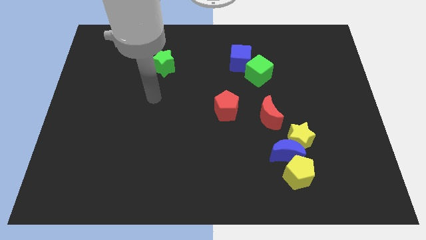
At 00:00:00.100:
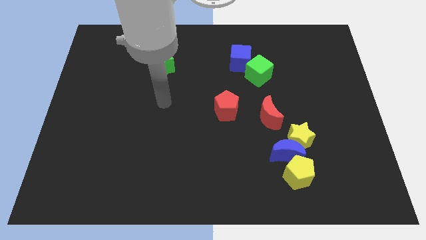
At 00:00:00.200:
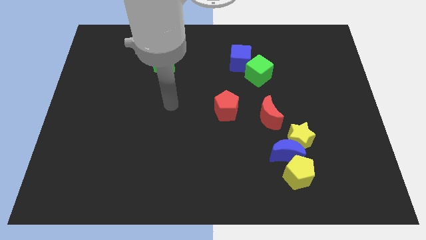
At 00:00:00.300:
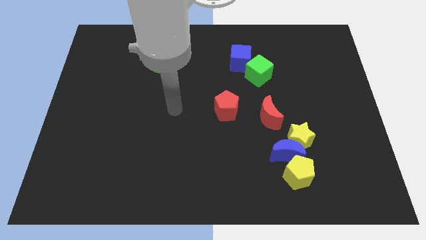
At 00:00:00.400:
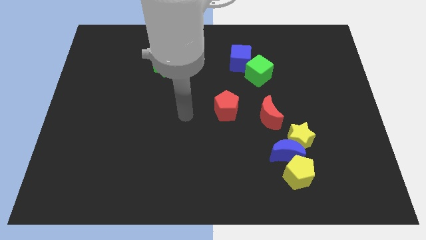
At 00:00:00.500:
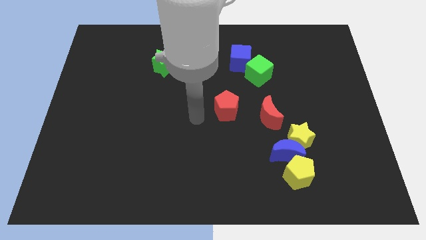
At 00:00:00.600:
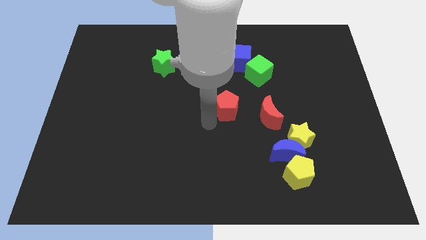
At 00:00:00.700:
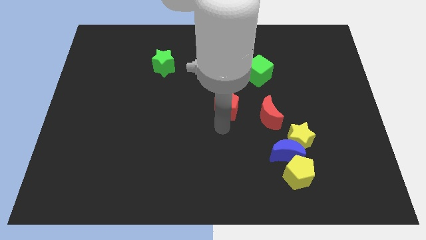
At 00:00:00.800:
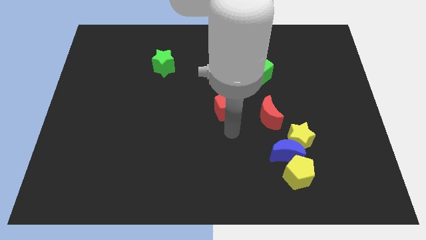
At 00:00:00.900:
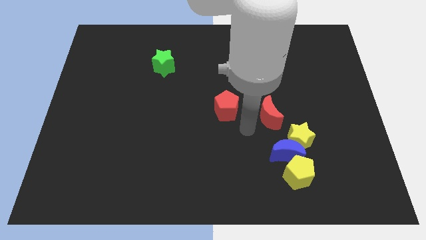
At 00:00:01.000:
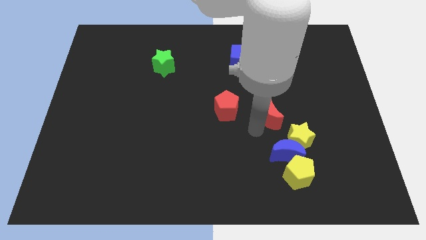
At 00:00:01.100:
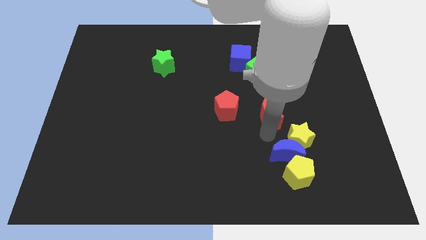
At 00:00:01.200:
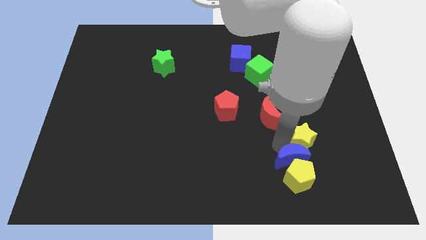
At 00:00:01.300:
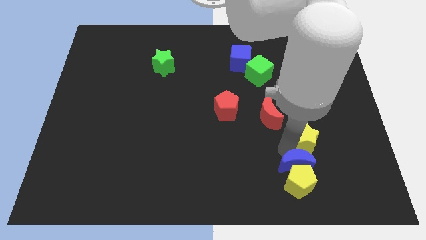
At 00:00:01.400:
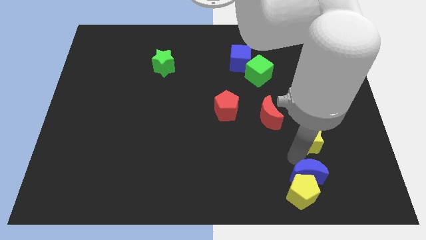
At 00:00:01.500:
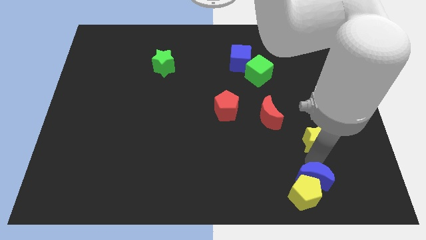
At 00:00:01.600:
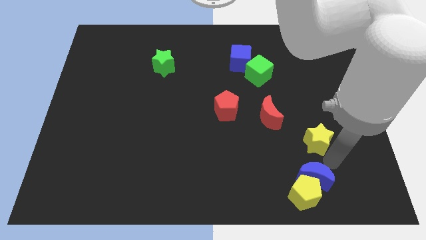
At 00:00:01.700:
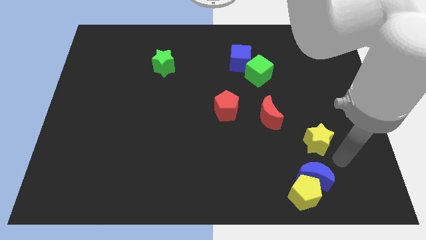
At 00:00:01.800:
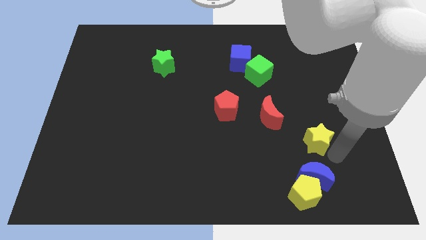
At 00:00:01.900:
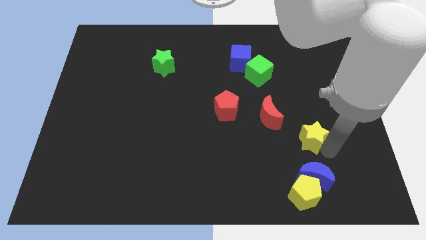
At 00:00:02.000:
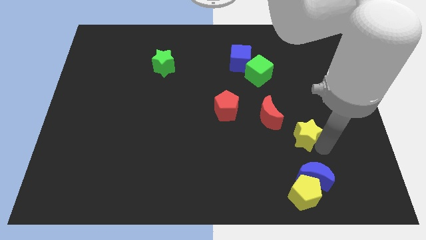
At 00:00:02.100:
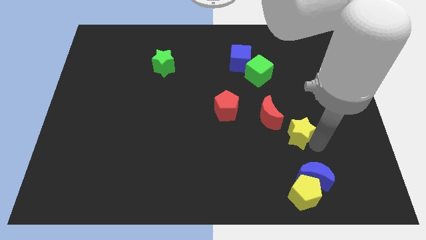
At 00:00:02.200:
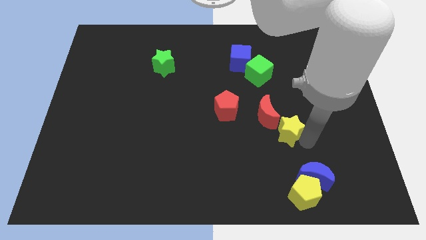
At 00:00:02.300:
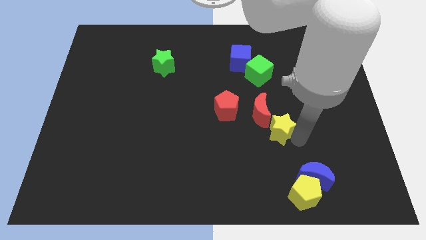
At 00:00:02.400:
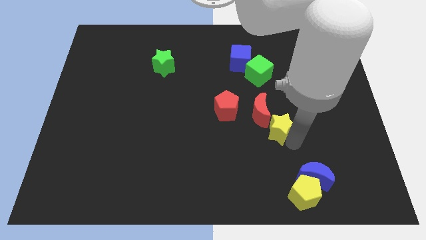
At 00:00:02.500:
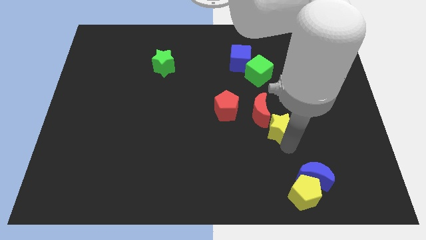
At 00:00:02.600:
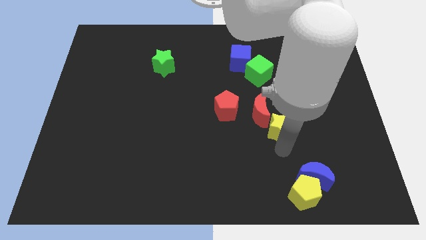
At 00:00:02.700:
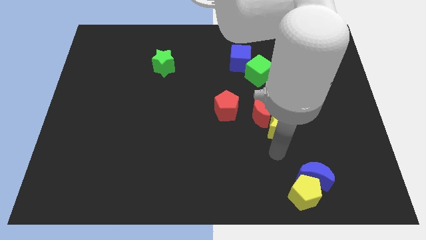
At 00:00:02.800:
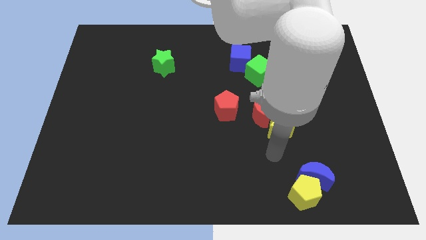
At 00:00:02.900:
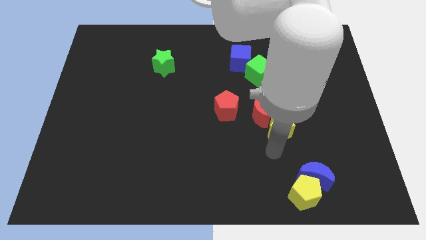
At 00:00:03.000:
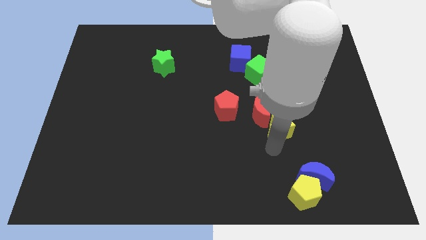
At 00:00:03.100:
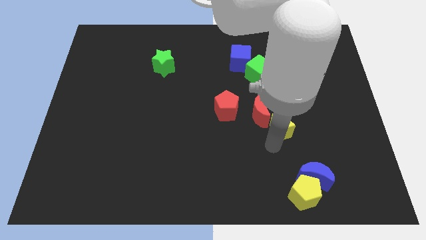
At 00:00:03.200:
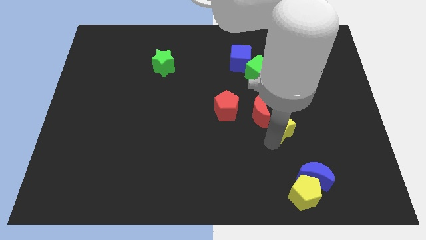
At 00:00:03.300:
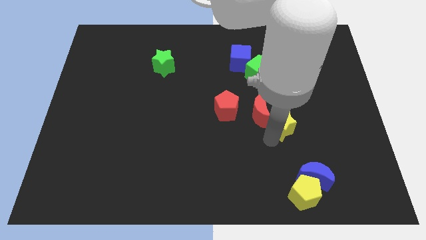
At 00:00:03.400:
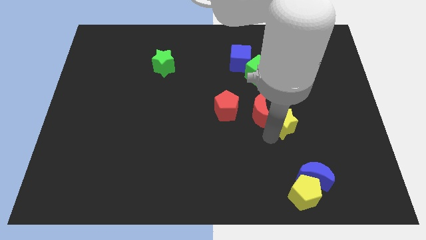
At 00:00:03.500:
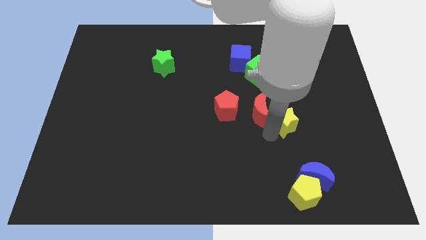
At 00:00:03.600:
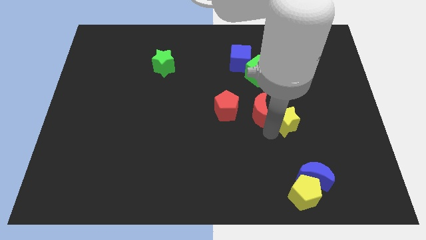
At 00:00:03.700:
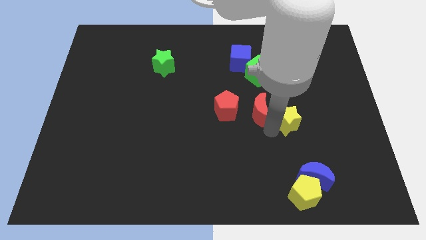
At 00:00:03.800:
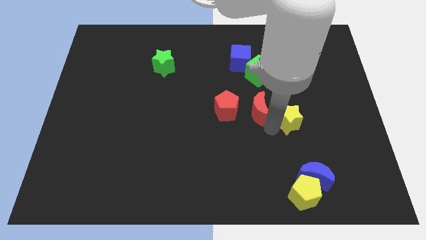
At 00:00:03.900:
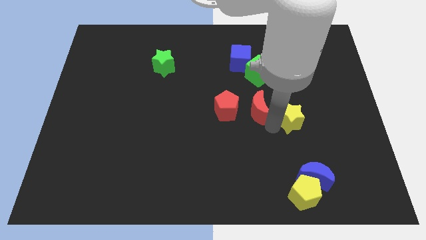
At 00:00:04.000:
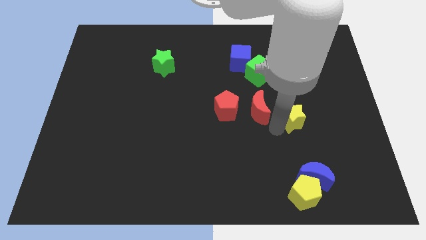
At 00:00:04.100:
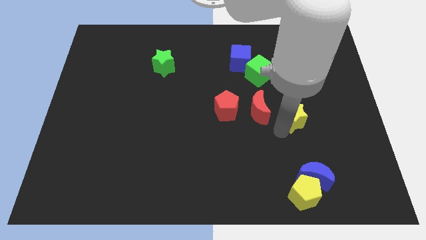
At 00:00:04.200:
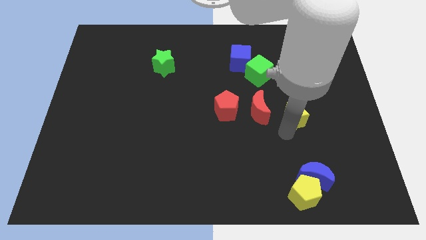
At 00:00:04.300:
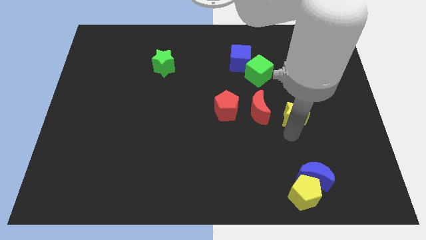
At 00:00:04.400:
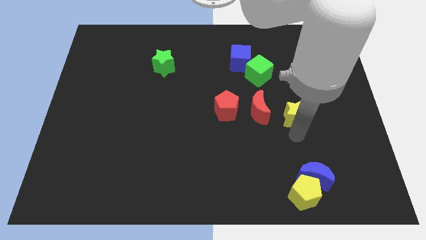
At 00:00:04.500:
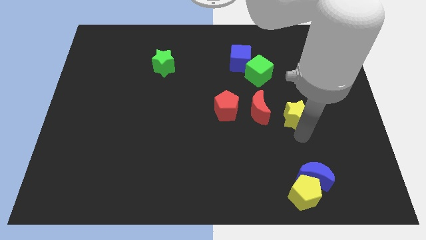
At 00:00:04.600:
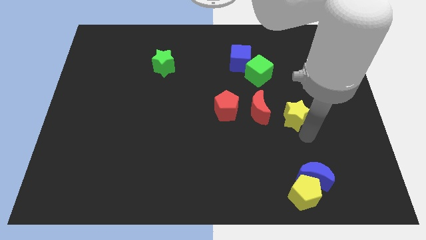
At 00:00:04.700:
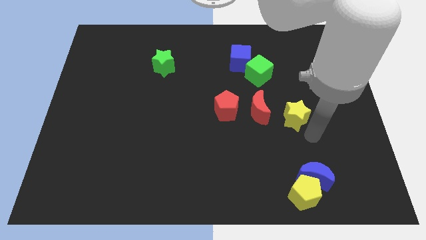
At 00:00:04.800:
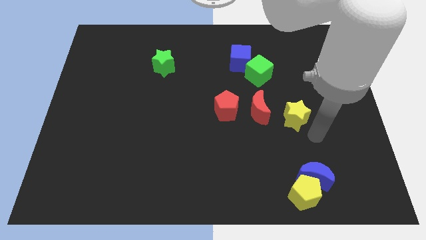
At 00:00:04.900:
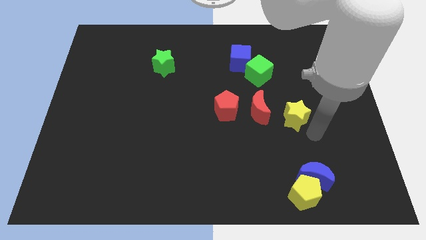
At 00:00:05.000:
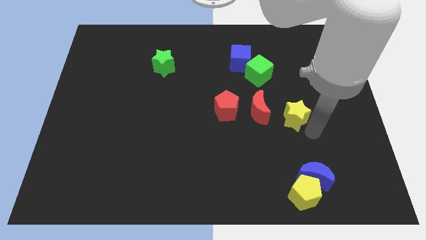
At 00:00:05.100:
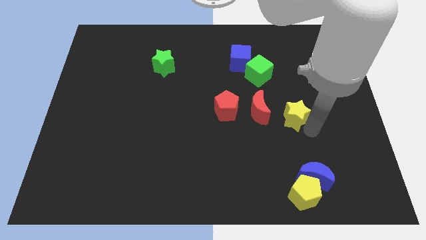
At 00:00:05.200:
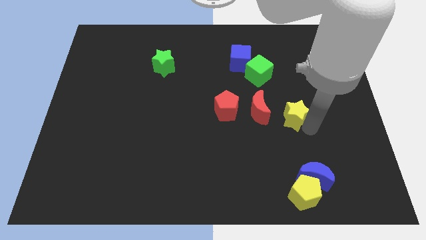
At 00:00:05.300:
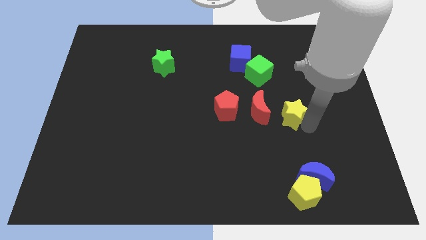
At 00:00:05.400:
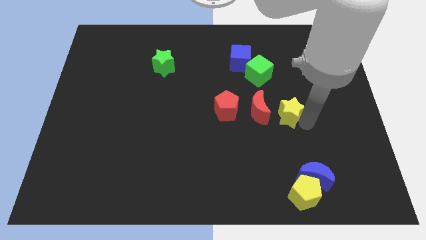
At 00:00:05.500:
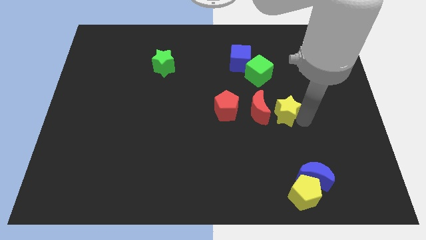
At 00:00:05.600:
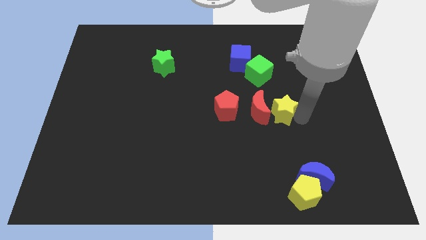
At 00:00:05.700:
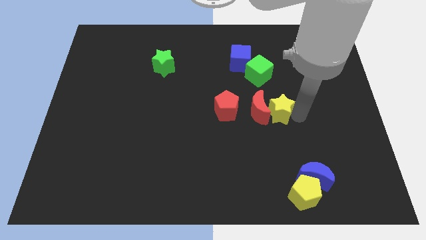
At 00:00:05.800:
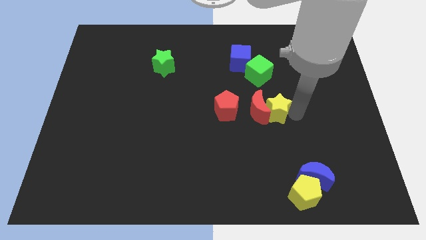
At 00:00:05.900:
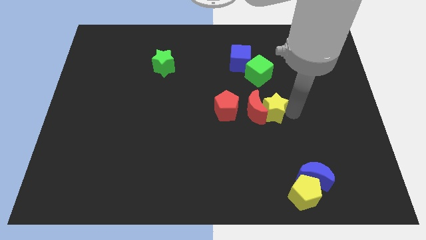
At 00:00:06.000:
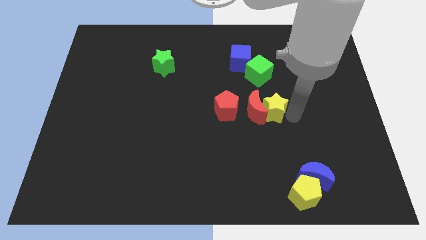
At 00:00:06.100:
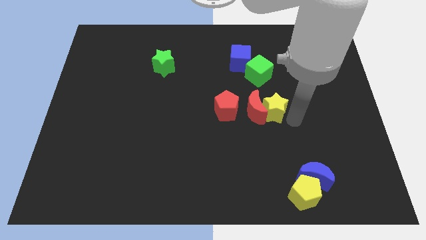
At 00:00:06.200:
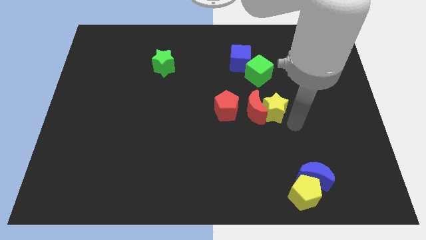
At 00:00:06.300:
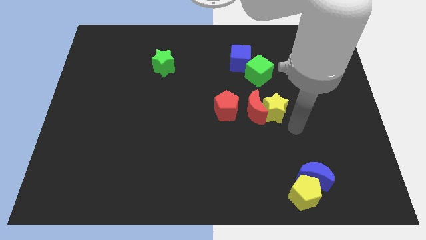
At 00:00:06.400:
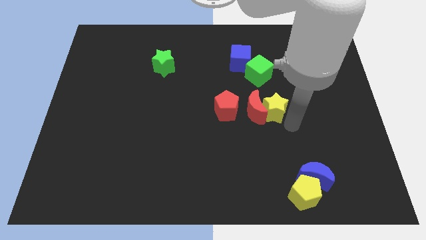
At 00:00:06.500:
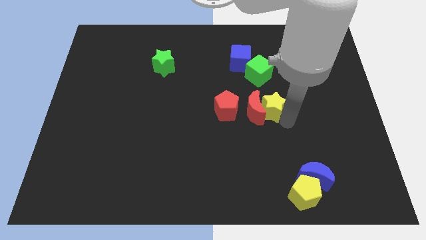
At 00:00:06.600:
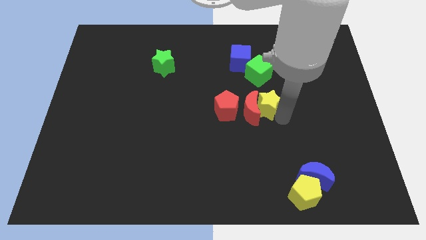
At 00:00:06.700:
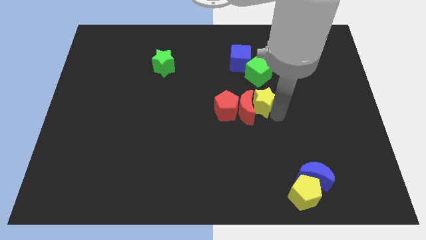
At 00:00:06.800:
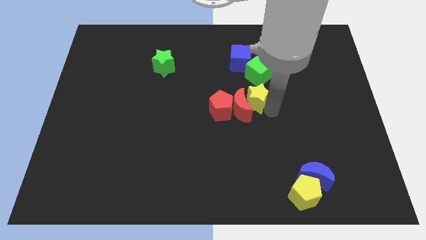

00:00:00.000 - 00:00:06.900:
move the yellow star below the blue cube
